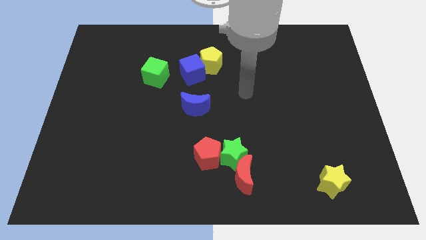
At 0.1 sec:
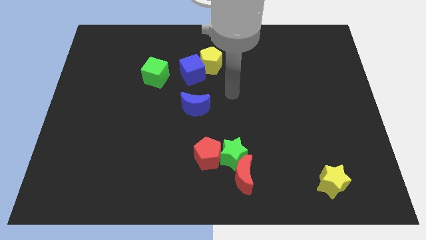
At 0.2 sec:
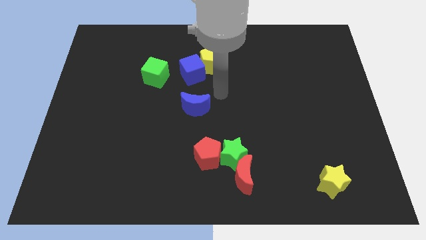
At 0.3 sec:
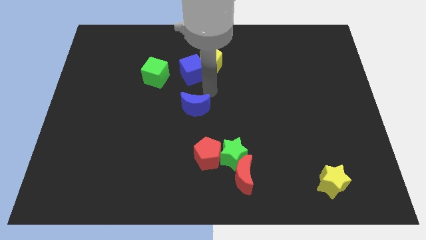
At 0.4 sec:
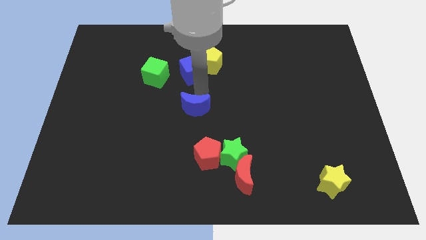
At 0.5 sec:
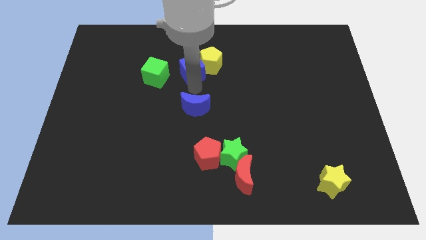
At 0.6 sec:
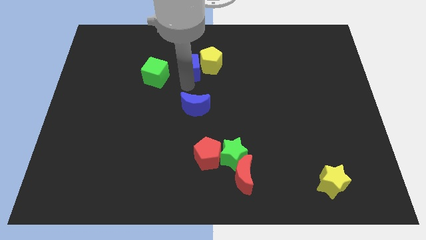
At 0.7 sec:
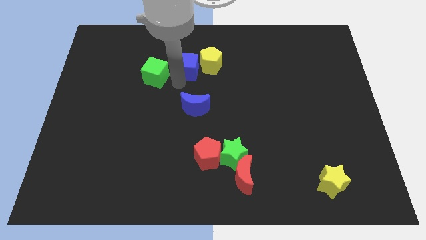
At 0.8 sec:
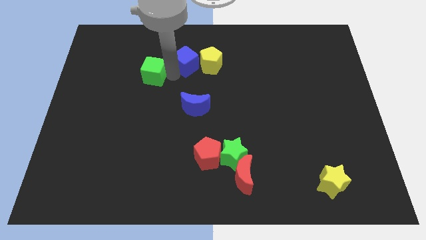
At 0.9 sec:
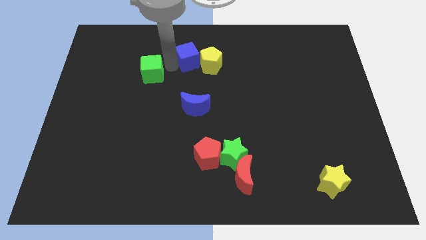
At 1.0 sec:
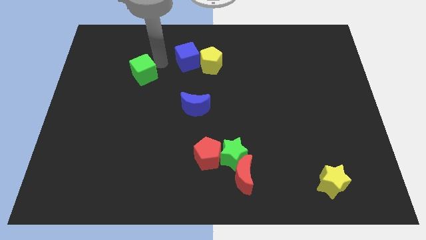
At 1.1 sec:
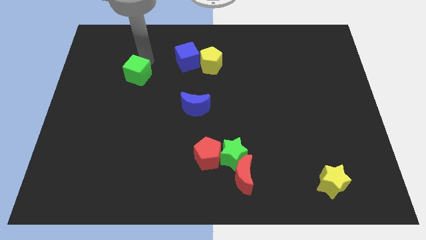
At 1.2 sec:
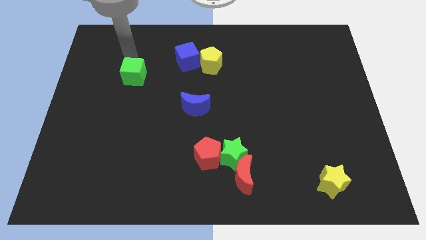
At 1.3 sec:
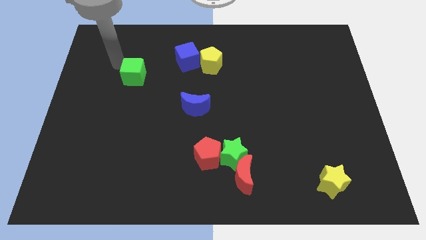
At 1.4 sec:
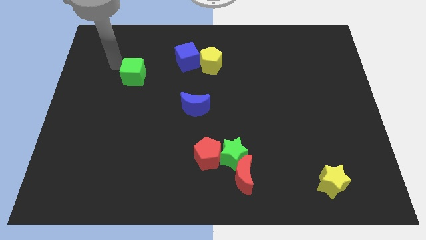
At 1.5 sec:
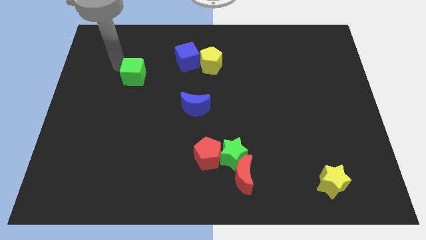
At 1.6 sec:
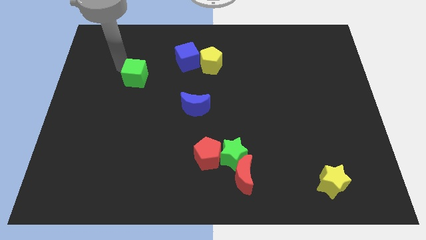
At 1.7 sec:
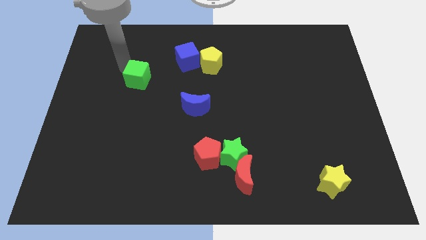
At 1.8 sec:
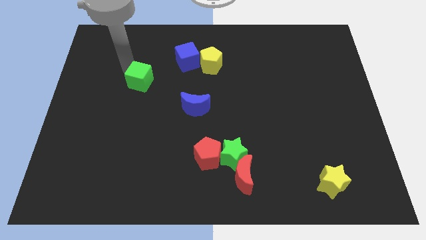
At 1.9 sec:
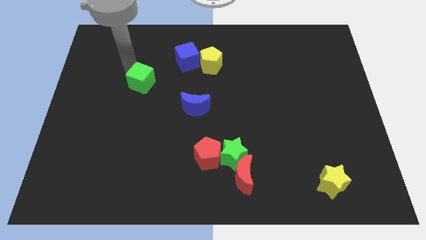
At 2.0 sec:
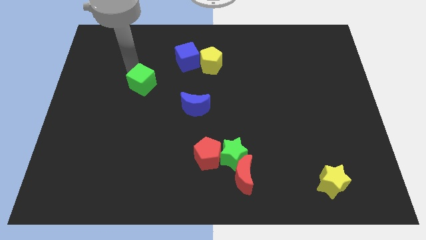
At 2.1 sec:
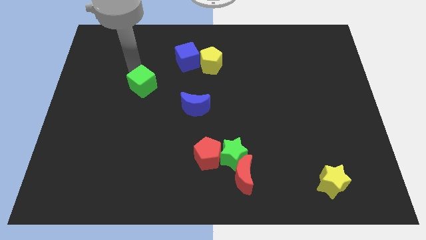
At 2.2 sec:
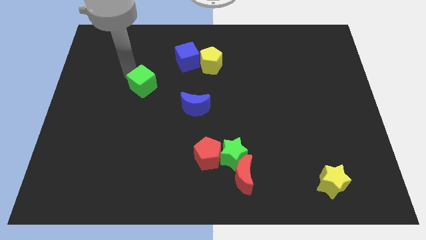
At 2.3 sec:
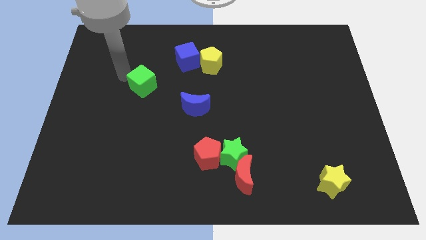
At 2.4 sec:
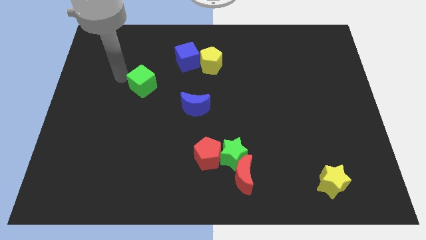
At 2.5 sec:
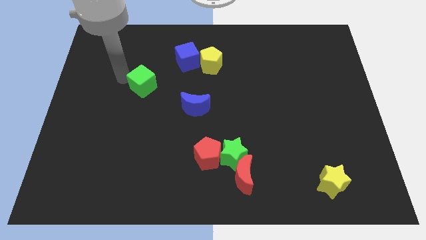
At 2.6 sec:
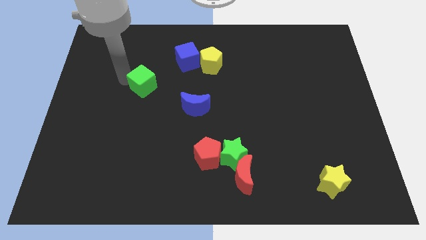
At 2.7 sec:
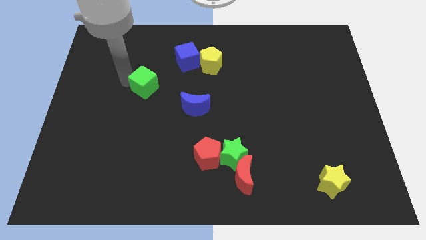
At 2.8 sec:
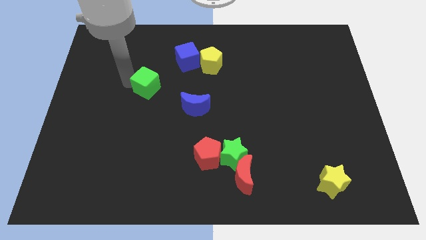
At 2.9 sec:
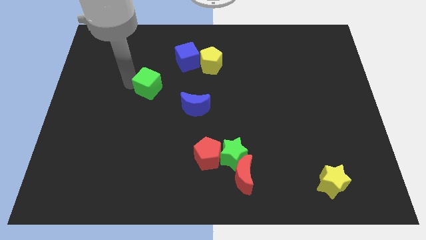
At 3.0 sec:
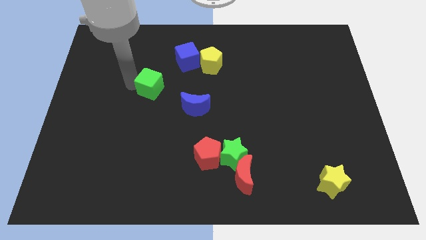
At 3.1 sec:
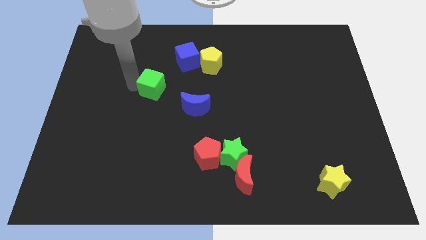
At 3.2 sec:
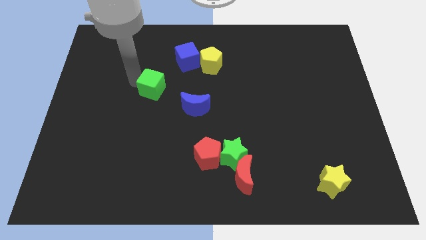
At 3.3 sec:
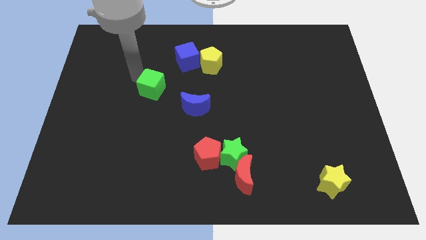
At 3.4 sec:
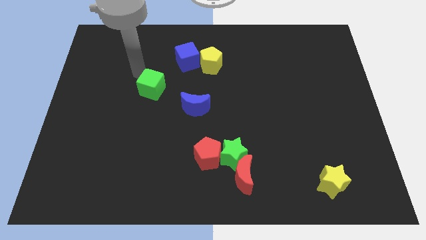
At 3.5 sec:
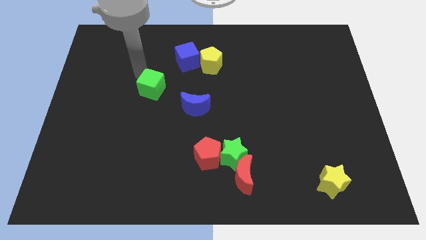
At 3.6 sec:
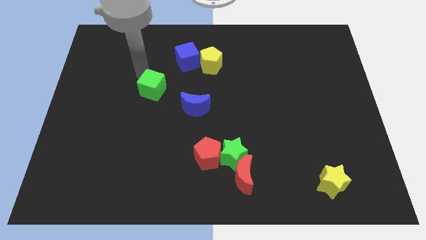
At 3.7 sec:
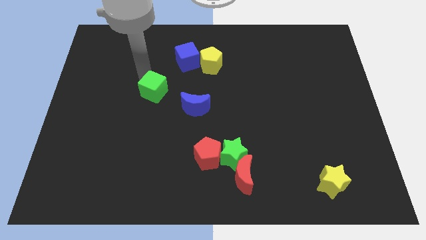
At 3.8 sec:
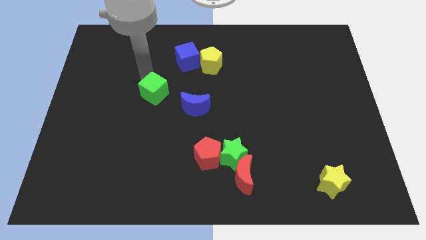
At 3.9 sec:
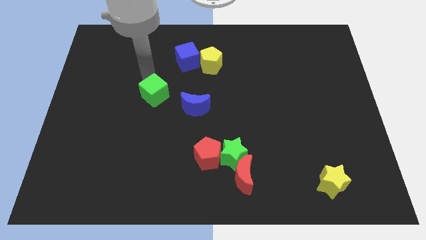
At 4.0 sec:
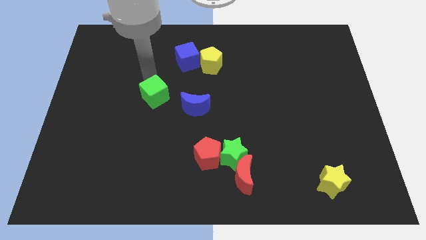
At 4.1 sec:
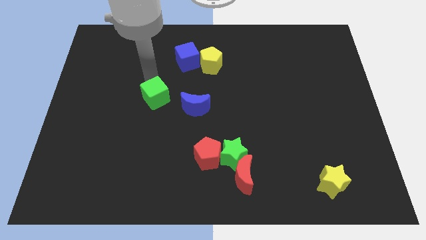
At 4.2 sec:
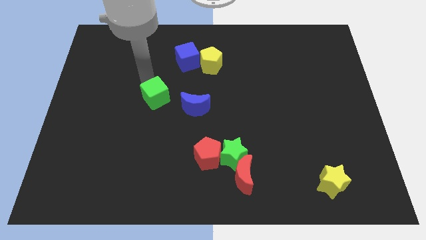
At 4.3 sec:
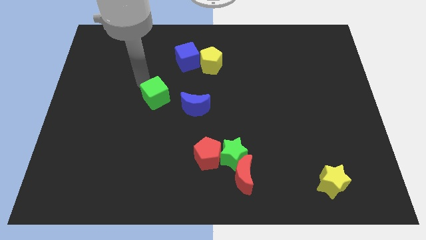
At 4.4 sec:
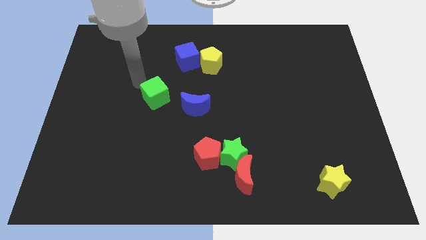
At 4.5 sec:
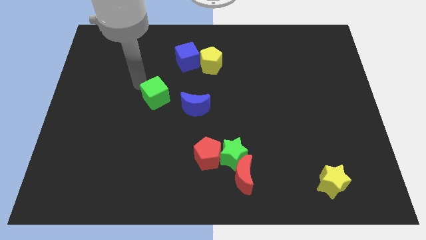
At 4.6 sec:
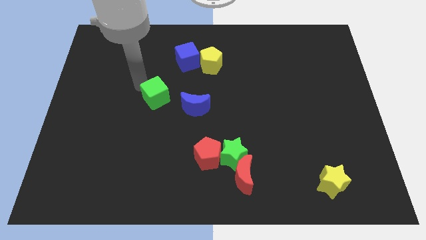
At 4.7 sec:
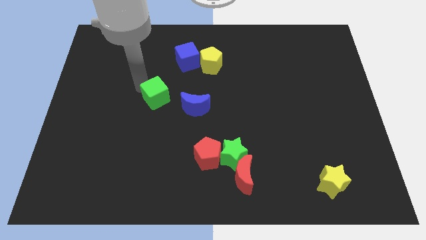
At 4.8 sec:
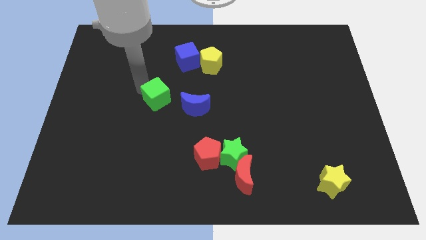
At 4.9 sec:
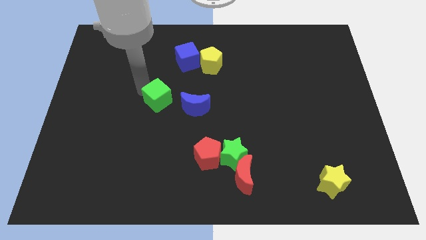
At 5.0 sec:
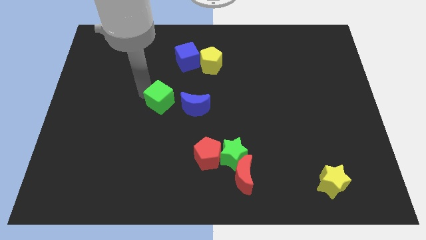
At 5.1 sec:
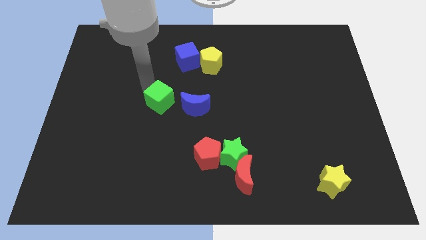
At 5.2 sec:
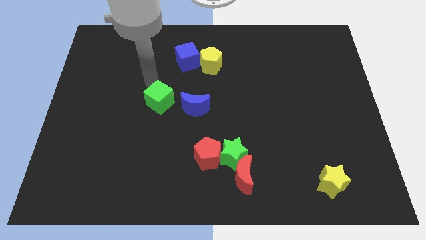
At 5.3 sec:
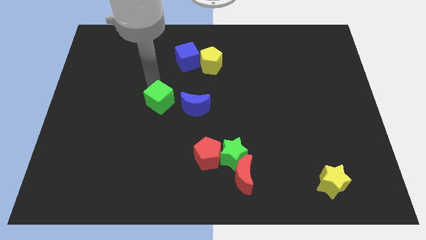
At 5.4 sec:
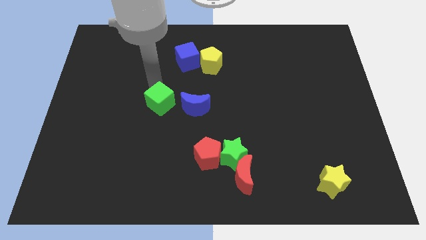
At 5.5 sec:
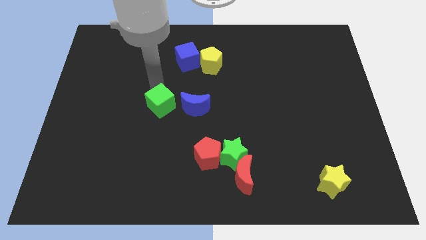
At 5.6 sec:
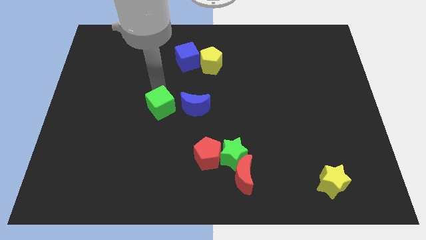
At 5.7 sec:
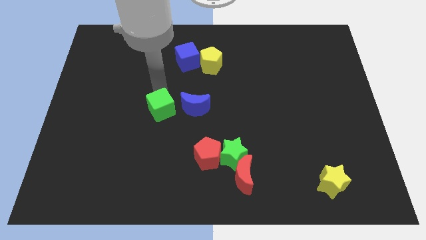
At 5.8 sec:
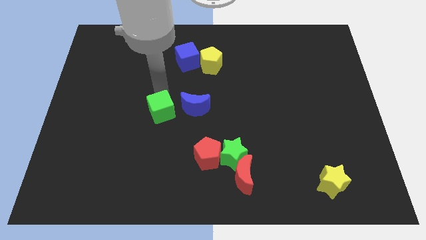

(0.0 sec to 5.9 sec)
put the green cube to the bottom left side of the blue moon

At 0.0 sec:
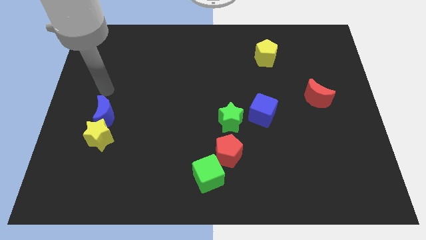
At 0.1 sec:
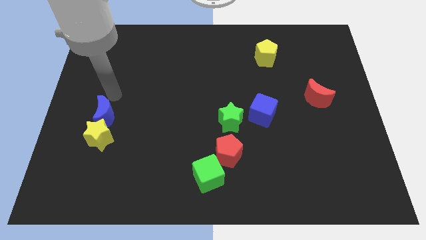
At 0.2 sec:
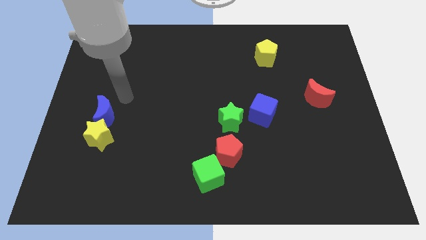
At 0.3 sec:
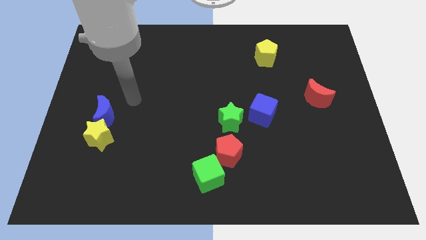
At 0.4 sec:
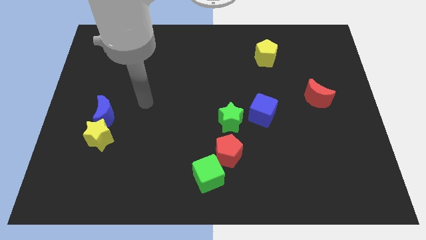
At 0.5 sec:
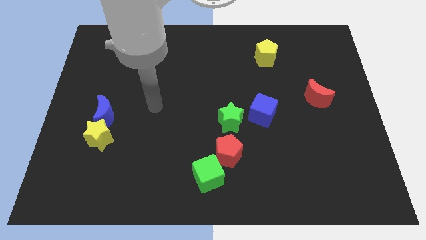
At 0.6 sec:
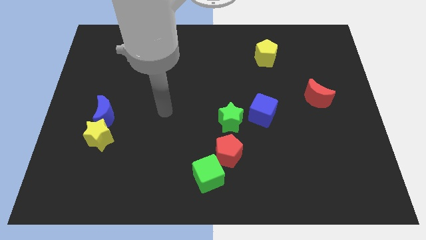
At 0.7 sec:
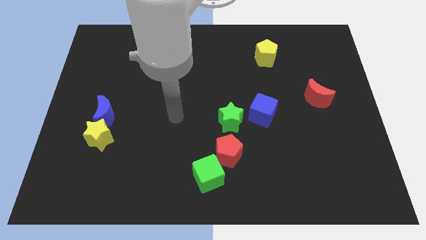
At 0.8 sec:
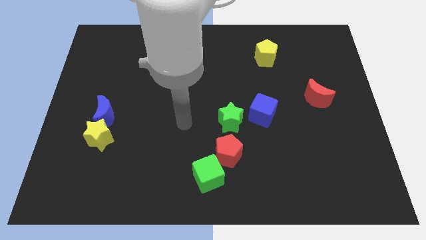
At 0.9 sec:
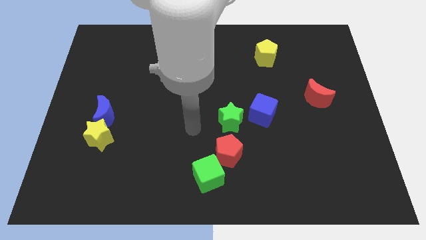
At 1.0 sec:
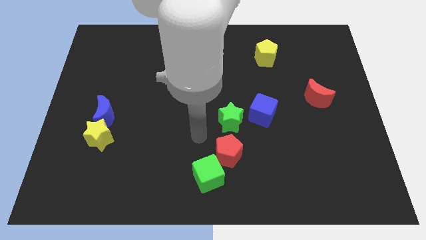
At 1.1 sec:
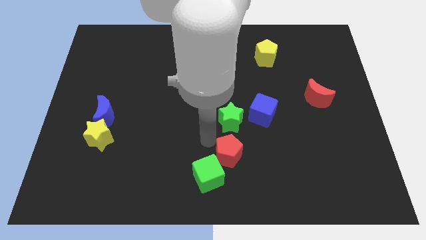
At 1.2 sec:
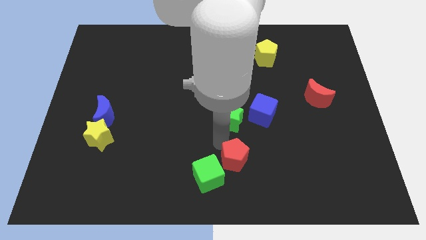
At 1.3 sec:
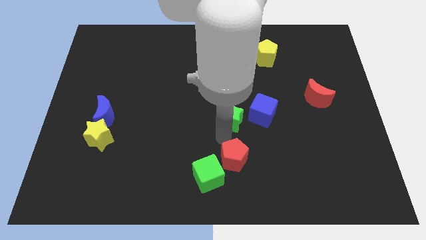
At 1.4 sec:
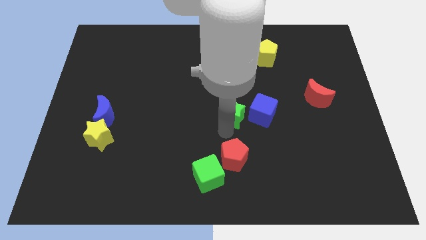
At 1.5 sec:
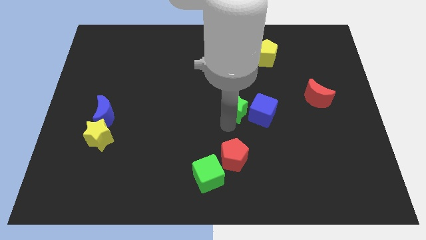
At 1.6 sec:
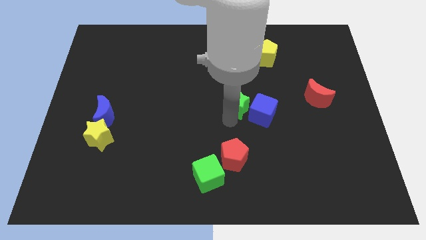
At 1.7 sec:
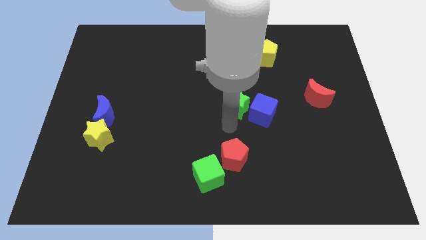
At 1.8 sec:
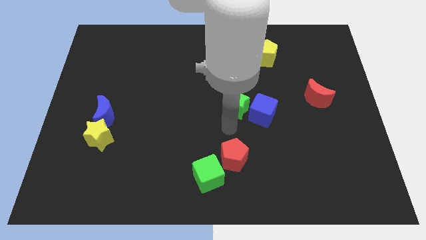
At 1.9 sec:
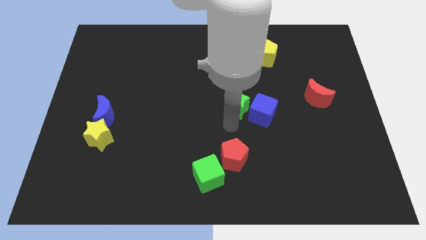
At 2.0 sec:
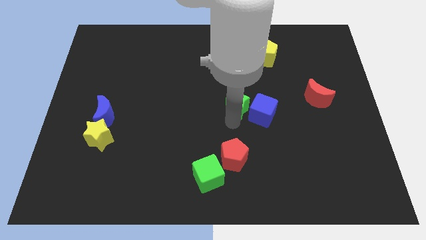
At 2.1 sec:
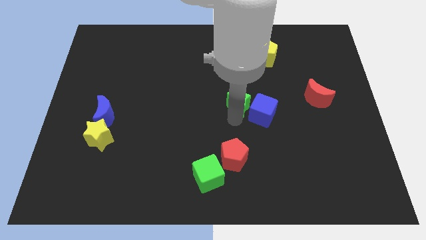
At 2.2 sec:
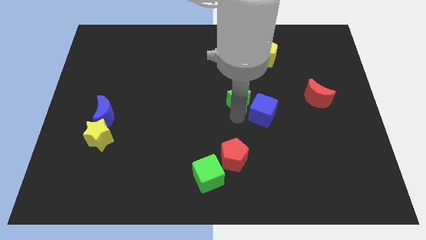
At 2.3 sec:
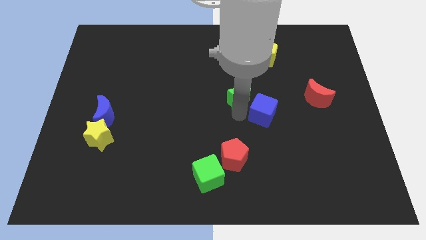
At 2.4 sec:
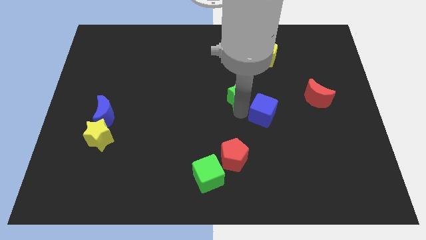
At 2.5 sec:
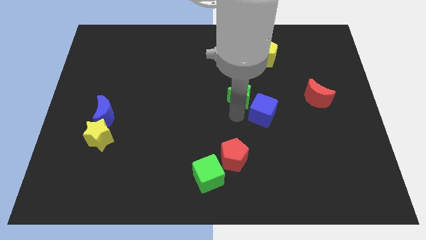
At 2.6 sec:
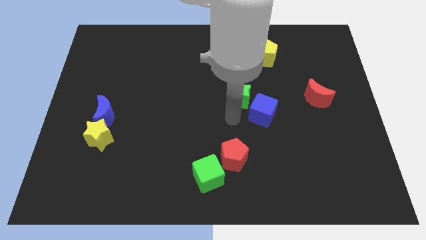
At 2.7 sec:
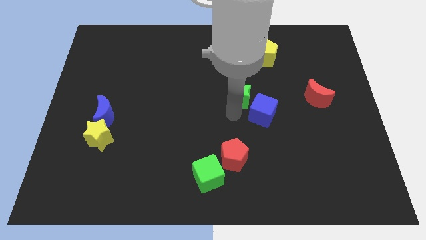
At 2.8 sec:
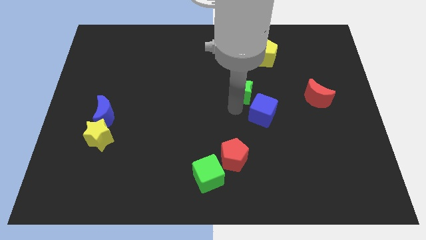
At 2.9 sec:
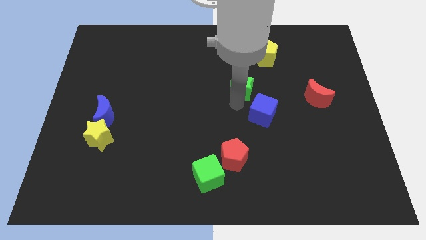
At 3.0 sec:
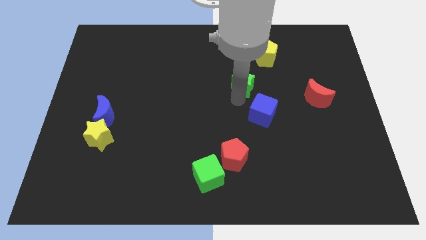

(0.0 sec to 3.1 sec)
put the green star to the bottom left of the yellow pentagon
